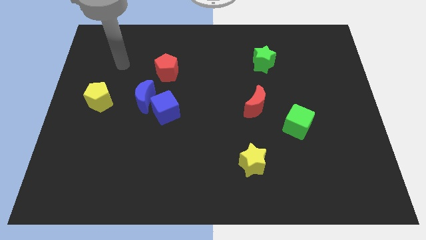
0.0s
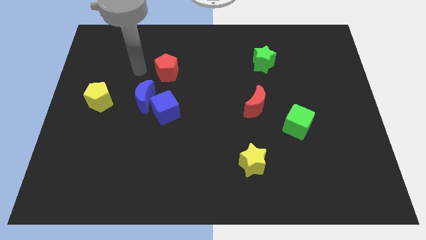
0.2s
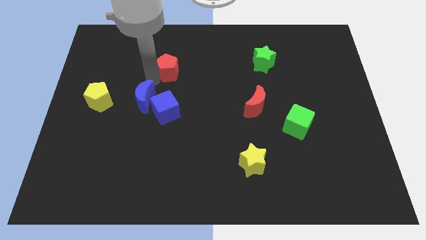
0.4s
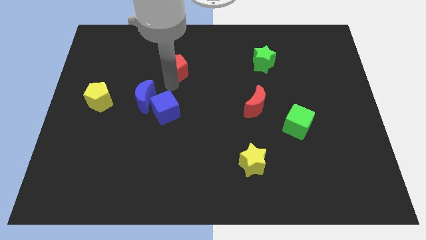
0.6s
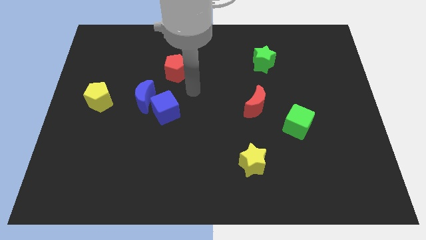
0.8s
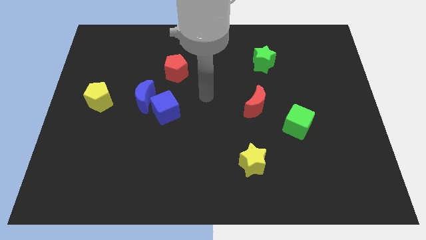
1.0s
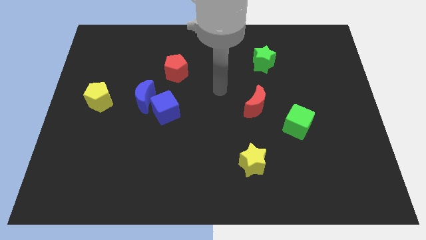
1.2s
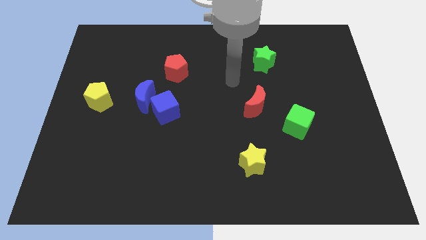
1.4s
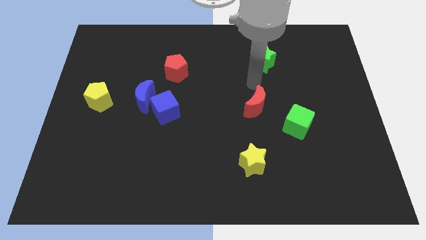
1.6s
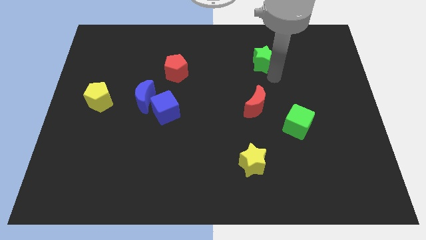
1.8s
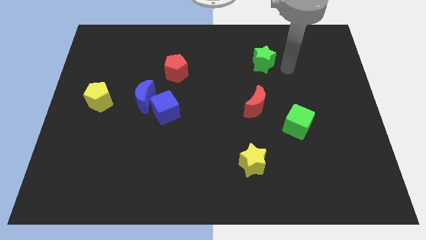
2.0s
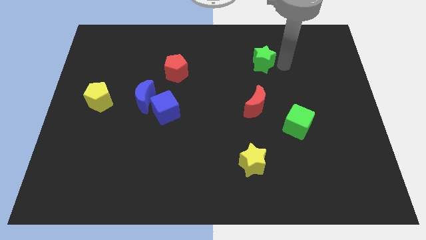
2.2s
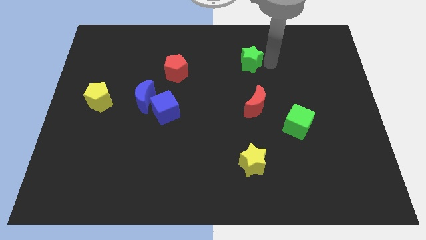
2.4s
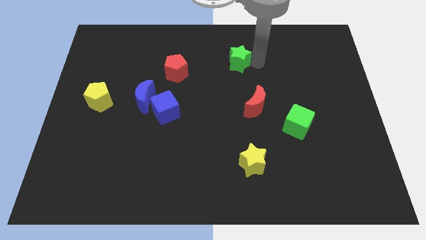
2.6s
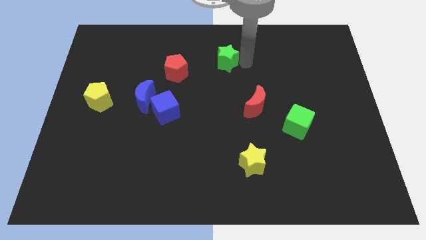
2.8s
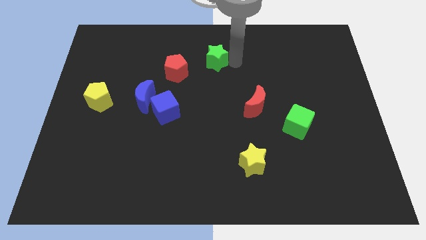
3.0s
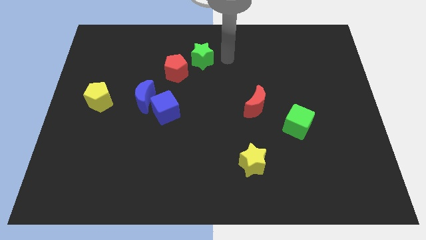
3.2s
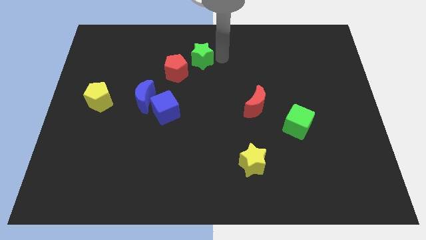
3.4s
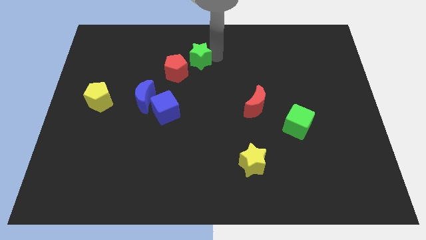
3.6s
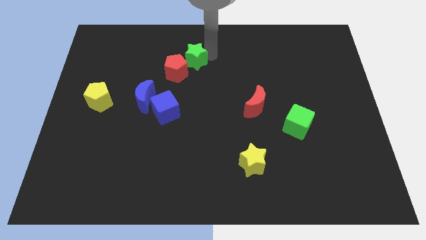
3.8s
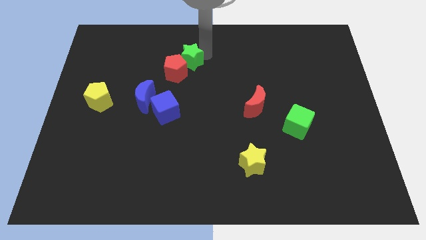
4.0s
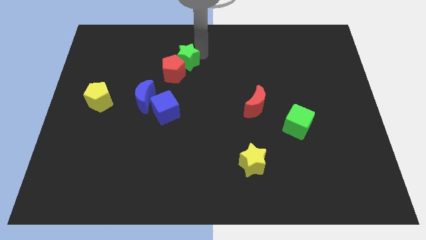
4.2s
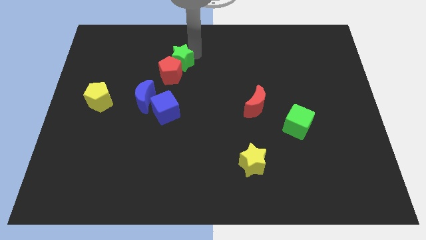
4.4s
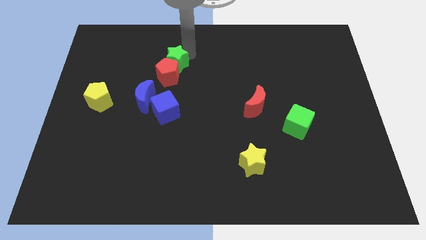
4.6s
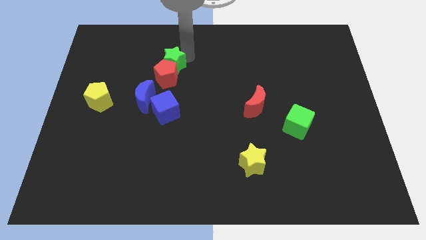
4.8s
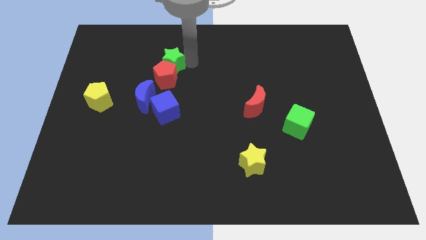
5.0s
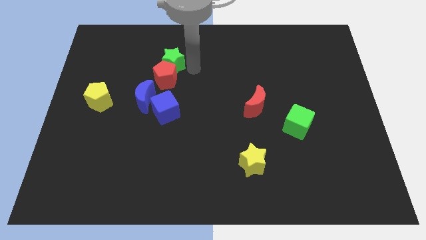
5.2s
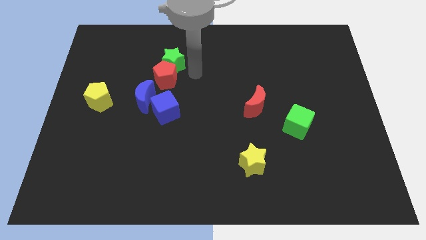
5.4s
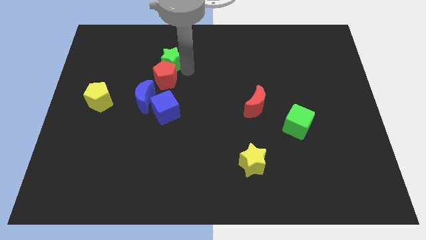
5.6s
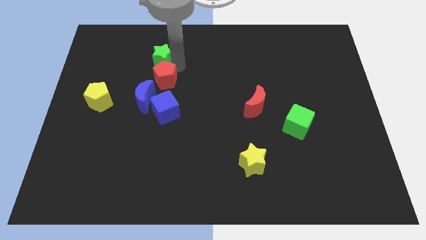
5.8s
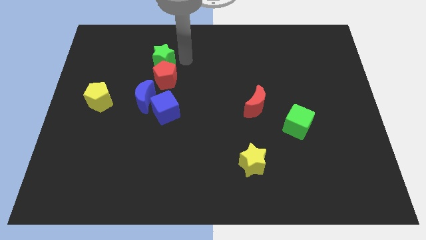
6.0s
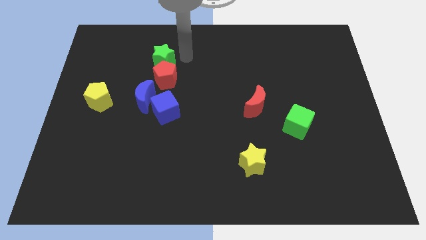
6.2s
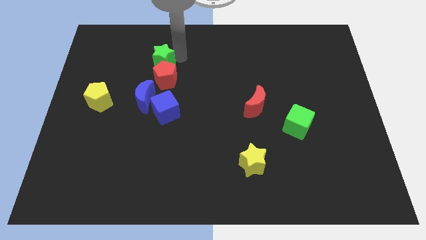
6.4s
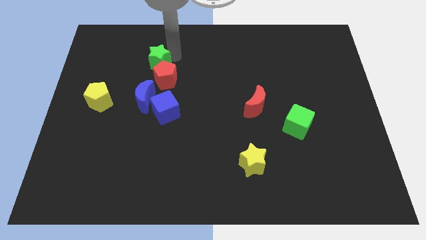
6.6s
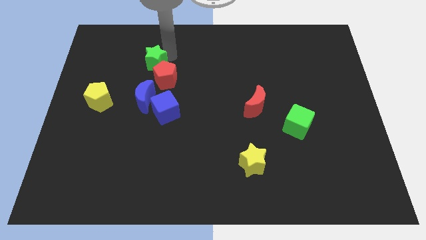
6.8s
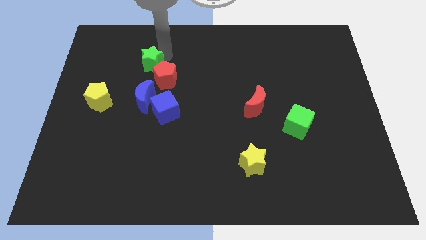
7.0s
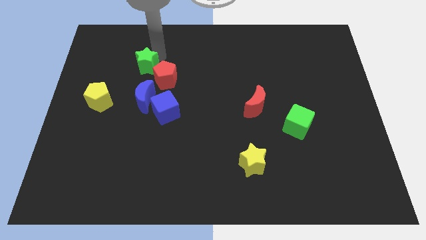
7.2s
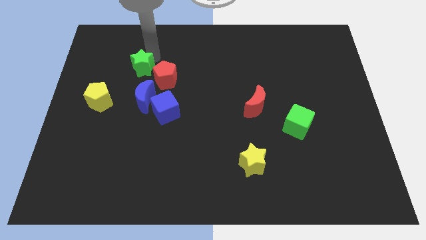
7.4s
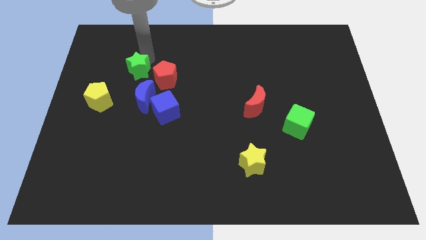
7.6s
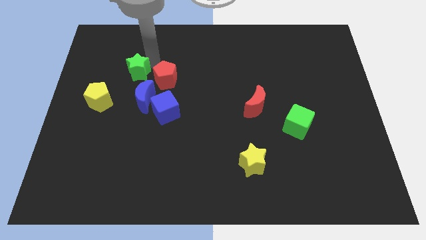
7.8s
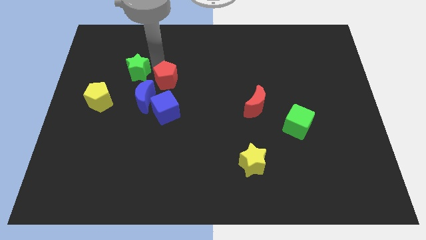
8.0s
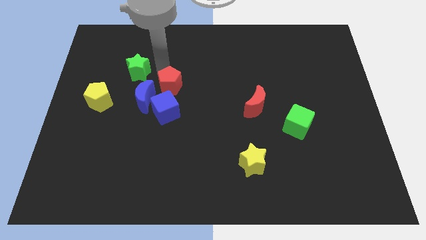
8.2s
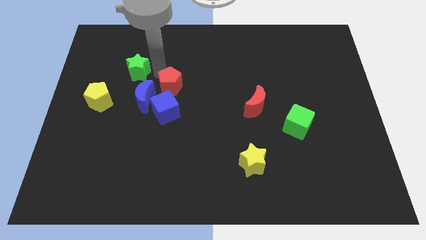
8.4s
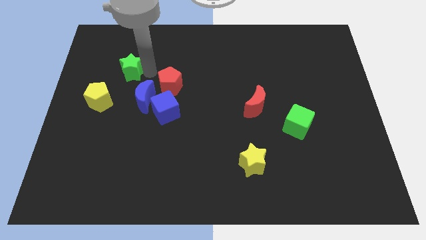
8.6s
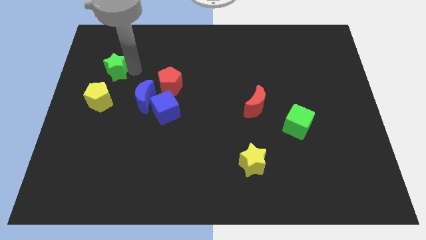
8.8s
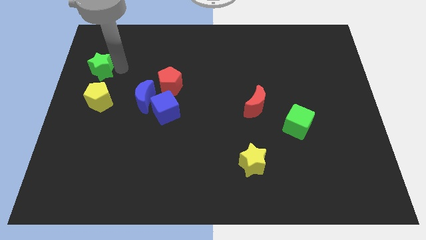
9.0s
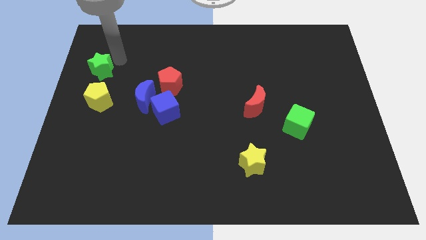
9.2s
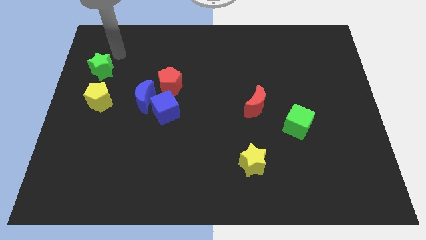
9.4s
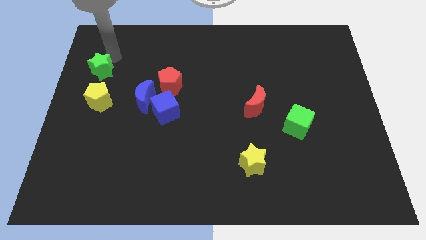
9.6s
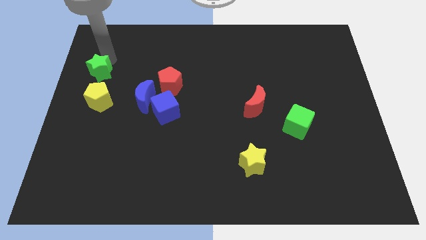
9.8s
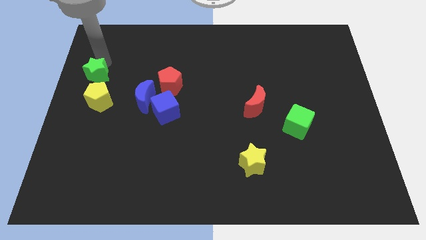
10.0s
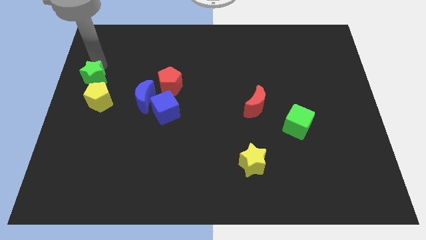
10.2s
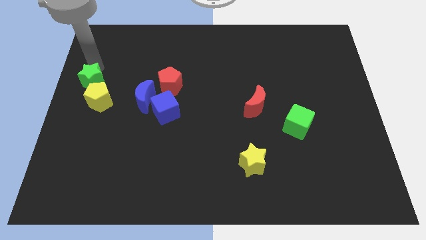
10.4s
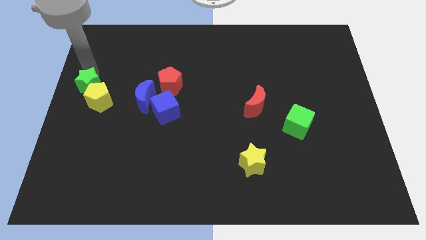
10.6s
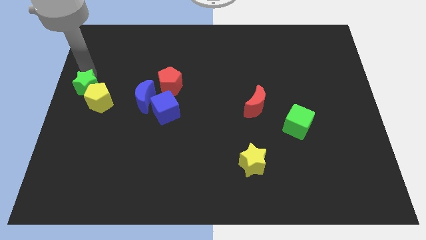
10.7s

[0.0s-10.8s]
put the green star just left of the blue moon

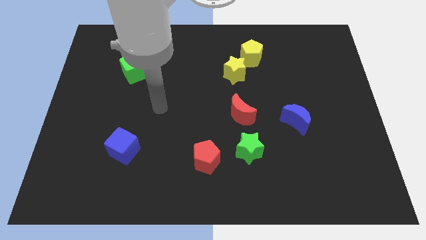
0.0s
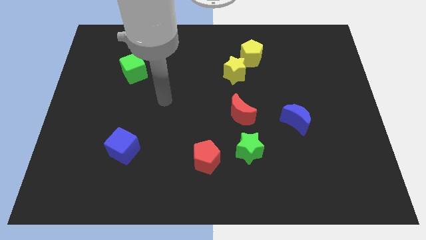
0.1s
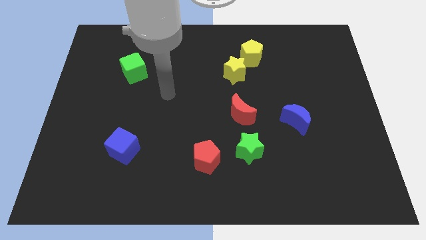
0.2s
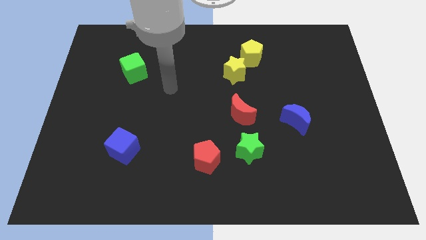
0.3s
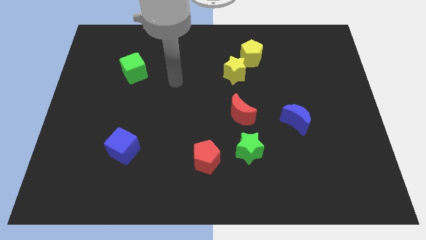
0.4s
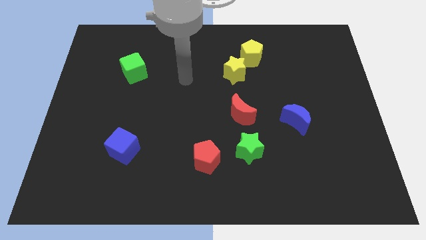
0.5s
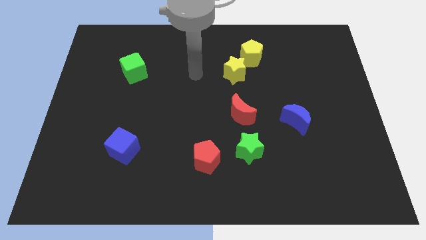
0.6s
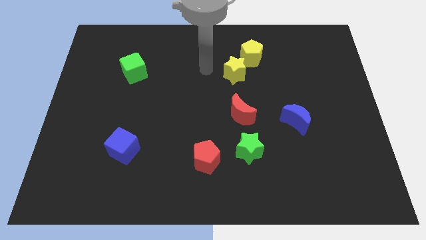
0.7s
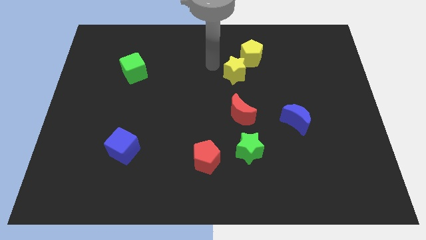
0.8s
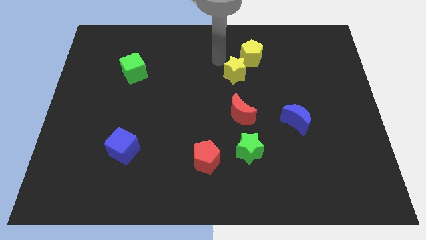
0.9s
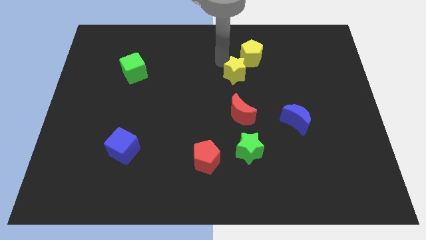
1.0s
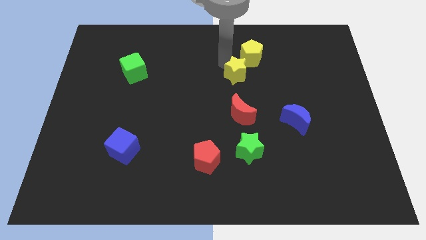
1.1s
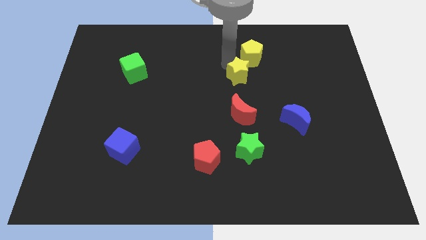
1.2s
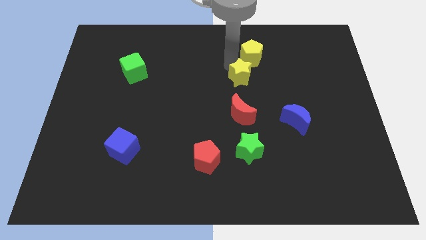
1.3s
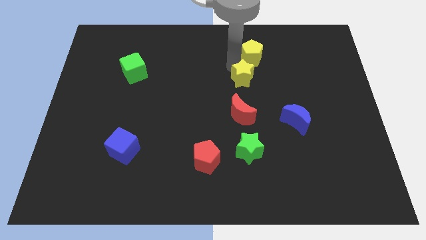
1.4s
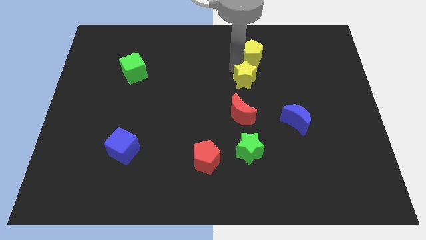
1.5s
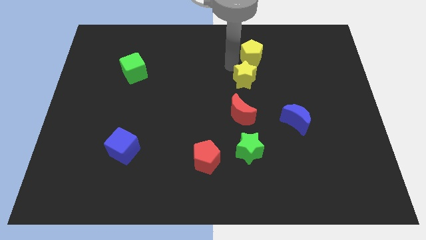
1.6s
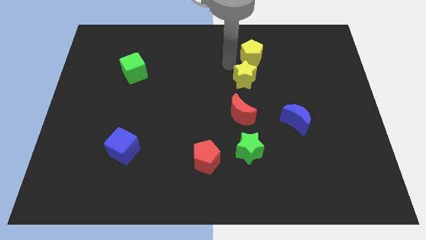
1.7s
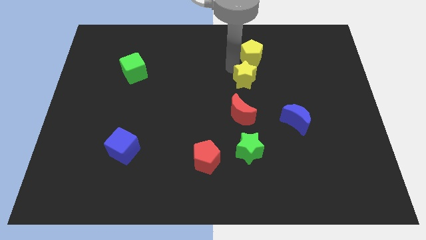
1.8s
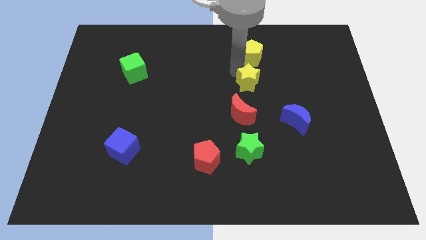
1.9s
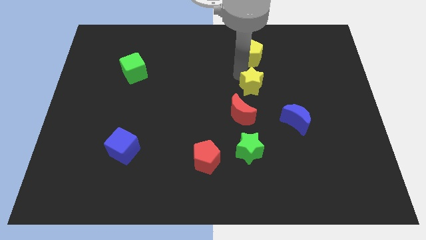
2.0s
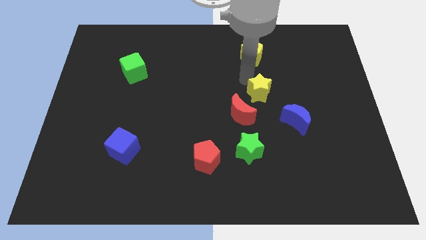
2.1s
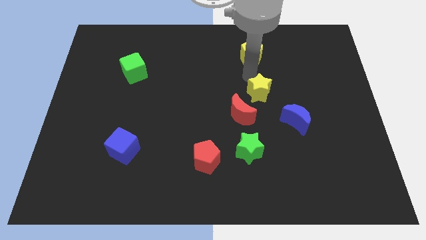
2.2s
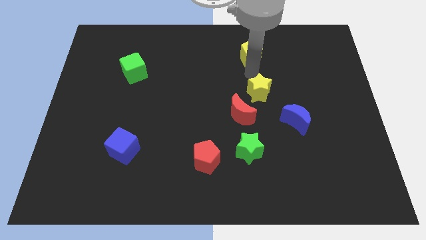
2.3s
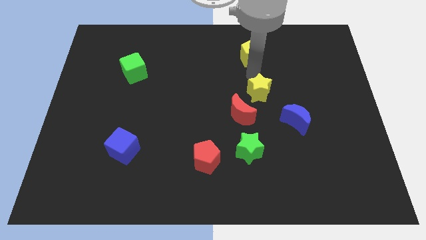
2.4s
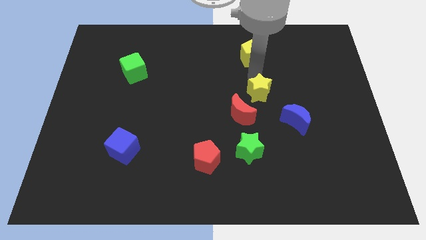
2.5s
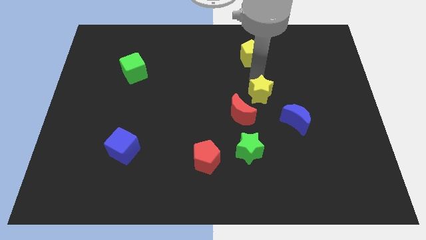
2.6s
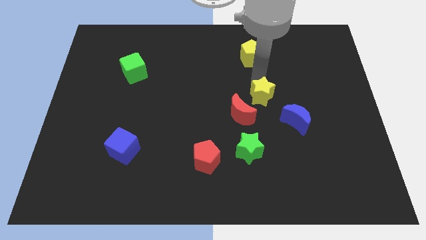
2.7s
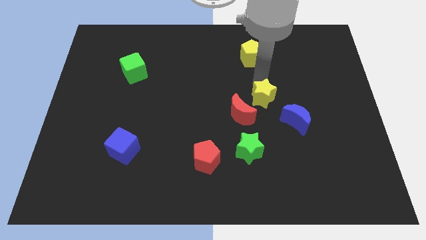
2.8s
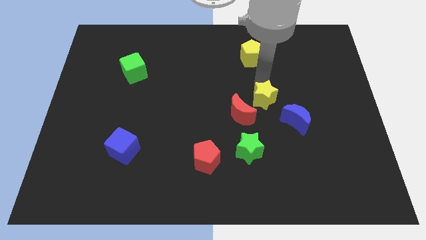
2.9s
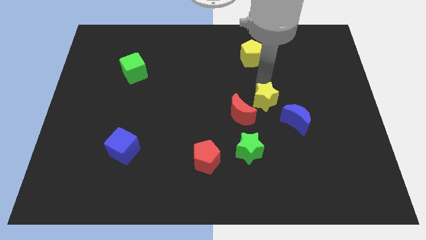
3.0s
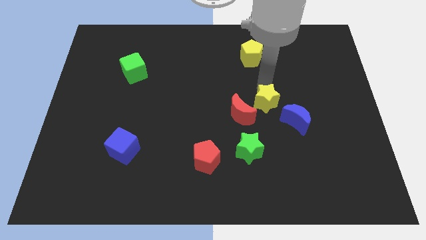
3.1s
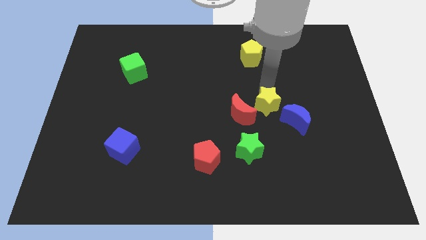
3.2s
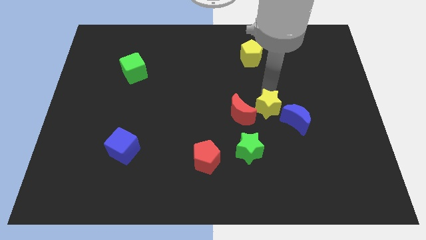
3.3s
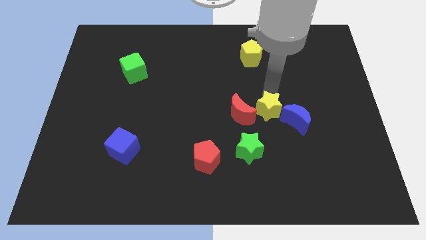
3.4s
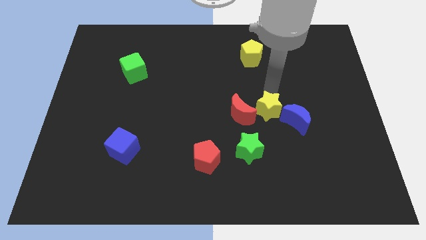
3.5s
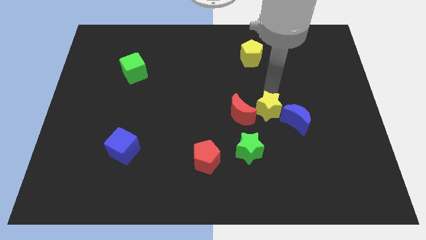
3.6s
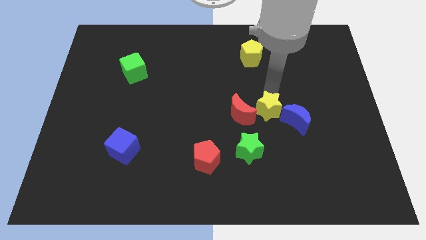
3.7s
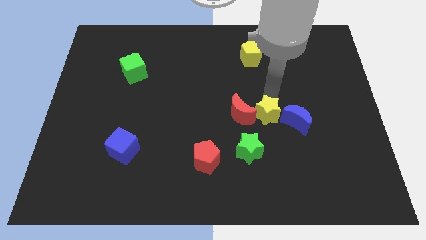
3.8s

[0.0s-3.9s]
push the yellow star to the bottom right of the red moon
